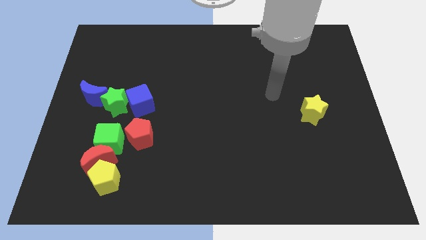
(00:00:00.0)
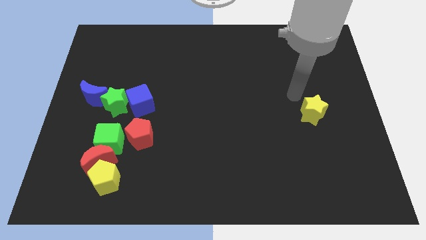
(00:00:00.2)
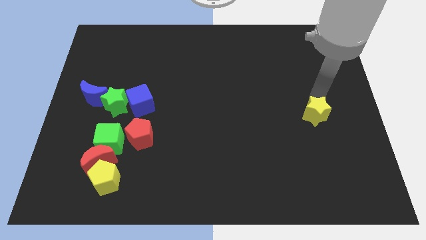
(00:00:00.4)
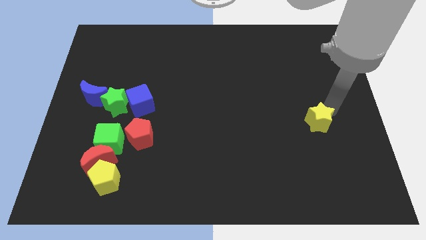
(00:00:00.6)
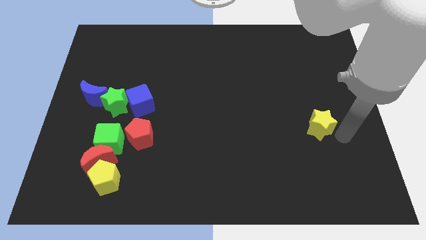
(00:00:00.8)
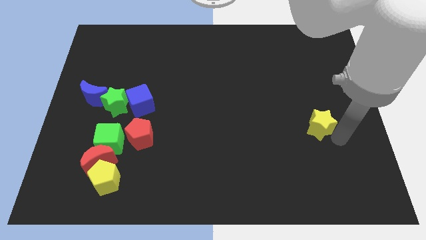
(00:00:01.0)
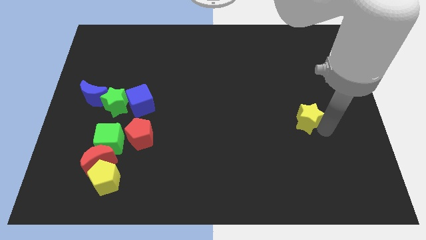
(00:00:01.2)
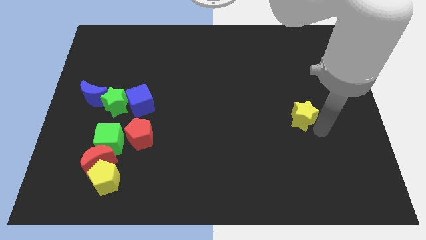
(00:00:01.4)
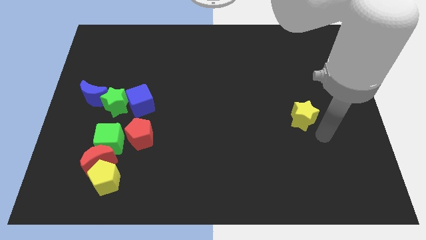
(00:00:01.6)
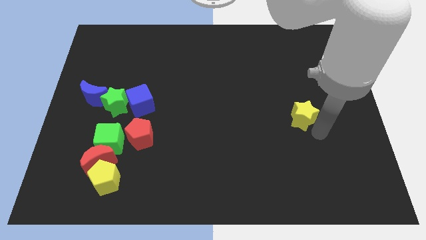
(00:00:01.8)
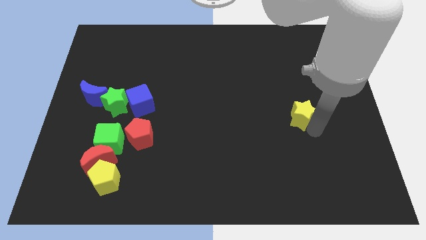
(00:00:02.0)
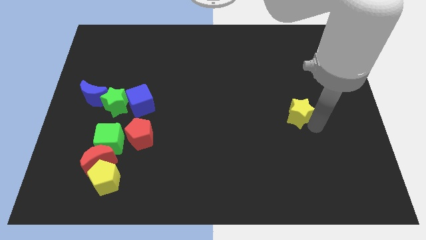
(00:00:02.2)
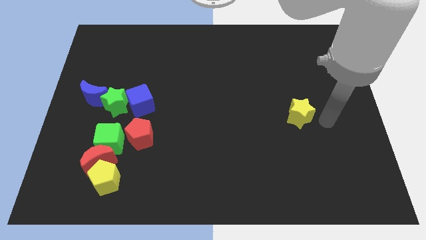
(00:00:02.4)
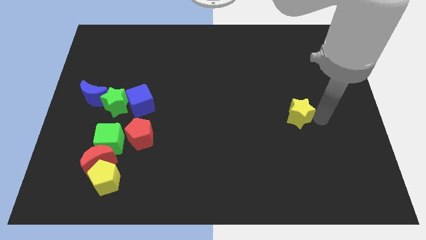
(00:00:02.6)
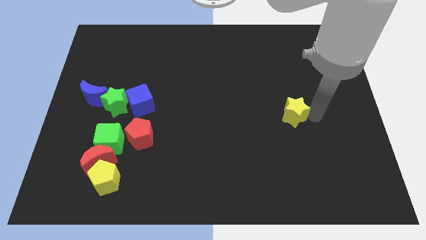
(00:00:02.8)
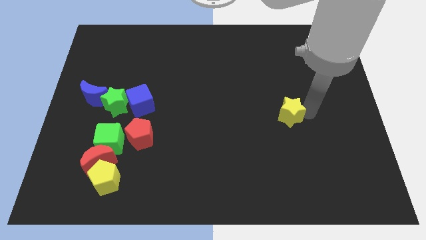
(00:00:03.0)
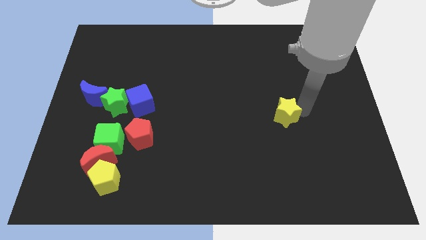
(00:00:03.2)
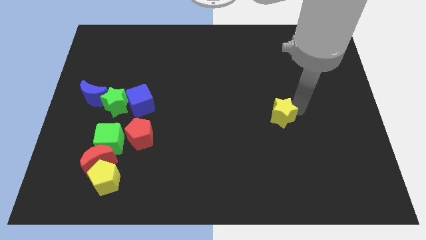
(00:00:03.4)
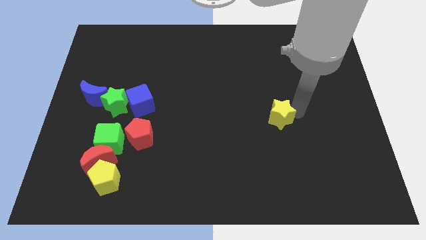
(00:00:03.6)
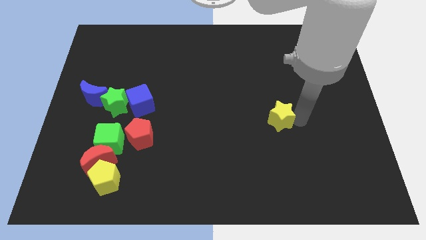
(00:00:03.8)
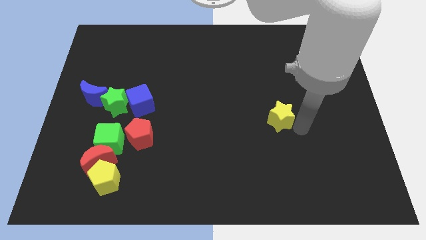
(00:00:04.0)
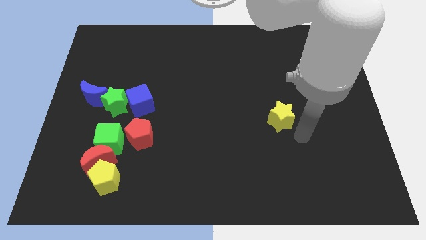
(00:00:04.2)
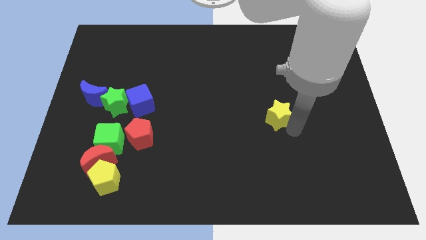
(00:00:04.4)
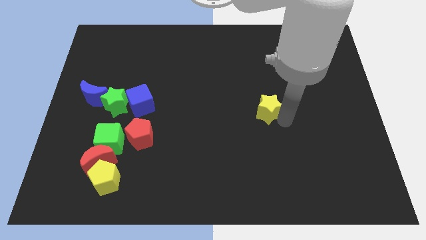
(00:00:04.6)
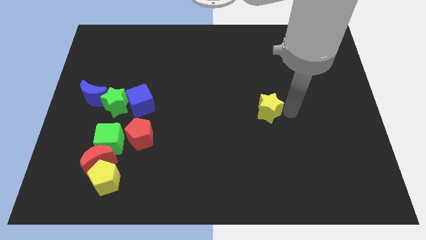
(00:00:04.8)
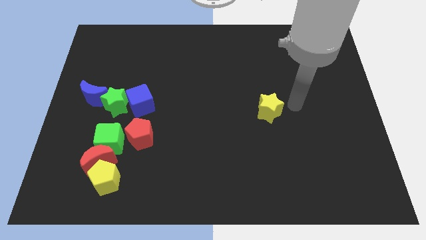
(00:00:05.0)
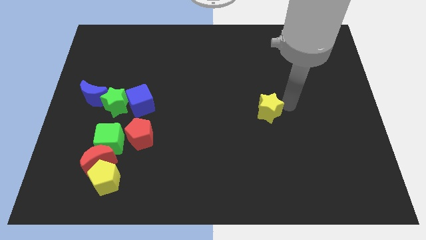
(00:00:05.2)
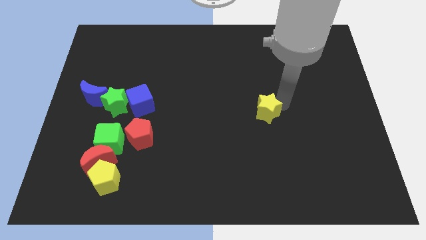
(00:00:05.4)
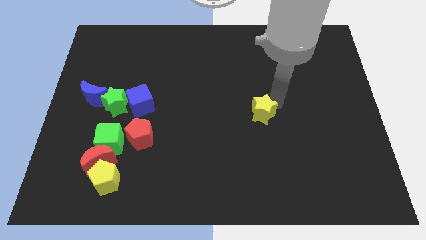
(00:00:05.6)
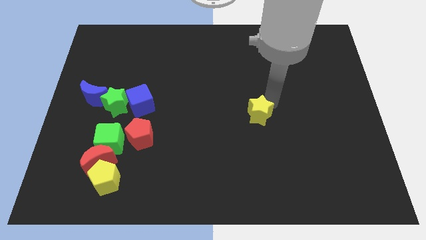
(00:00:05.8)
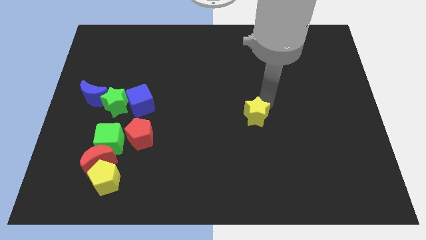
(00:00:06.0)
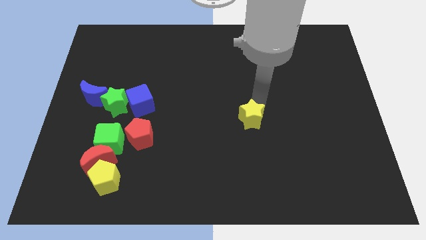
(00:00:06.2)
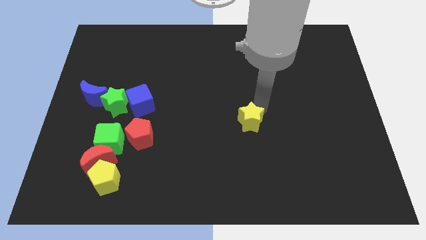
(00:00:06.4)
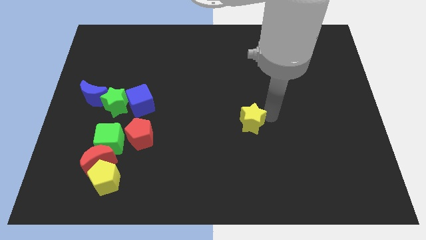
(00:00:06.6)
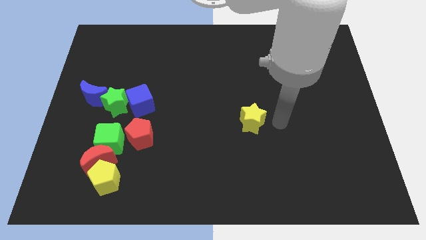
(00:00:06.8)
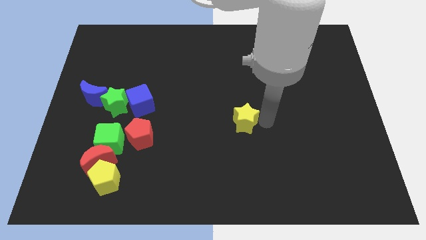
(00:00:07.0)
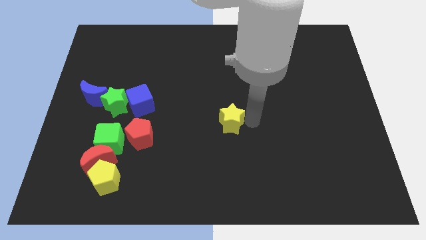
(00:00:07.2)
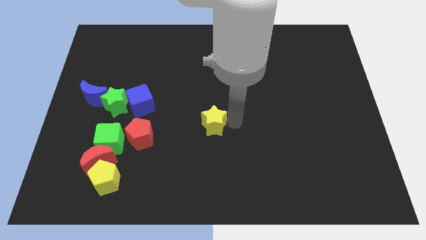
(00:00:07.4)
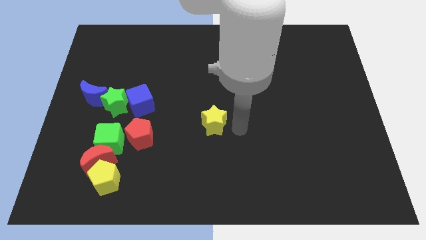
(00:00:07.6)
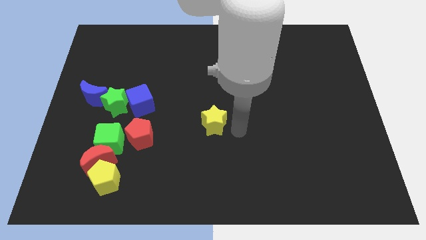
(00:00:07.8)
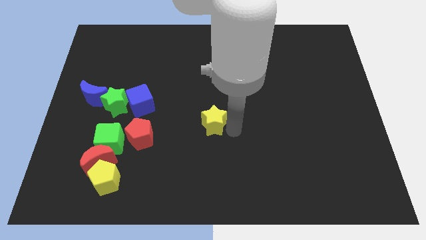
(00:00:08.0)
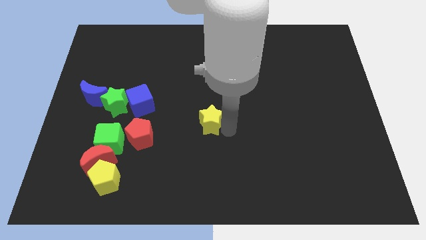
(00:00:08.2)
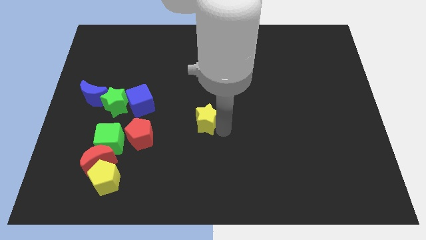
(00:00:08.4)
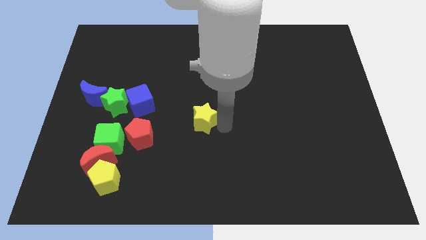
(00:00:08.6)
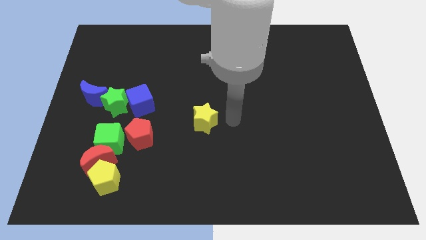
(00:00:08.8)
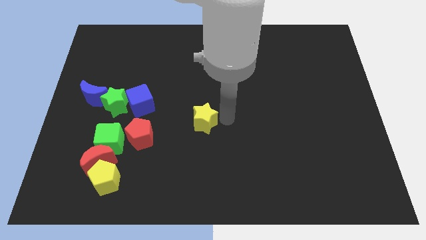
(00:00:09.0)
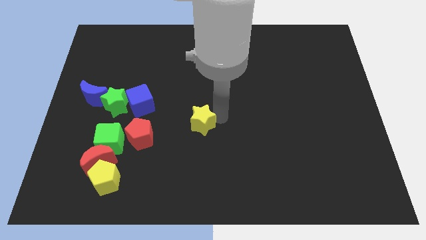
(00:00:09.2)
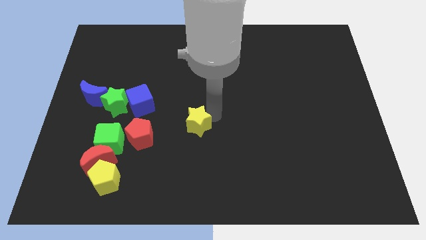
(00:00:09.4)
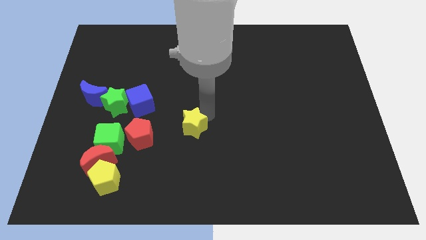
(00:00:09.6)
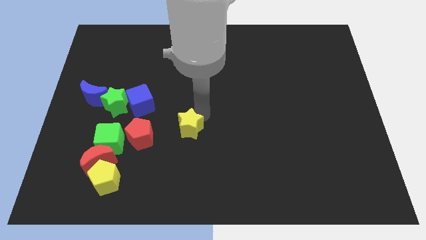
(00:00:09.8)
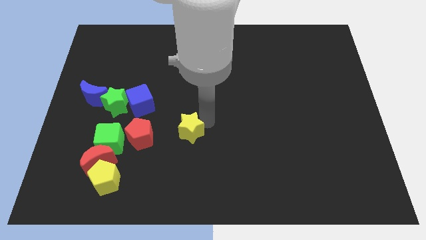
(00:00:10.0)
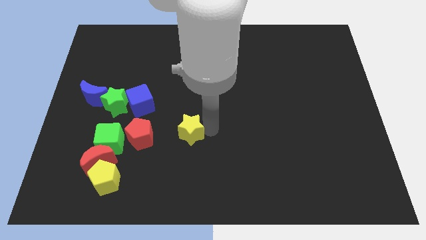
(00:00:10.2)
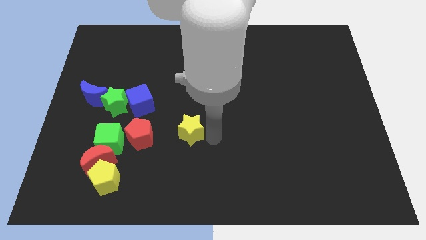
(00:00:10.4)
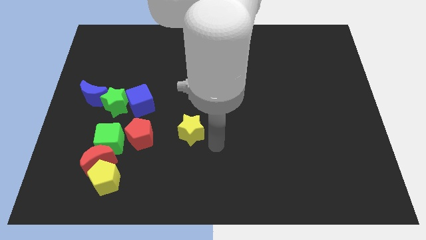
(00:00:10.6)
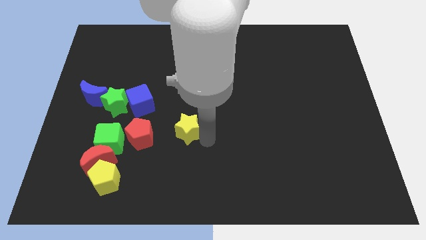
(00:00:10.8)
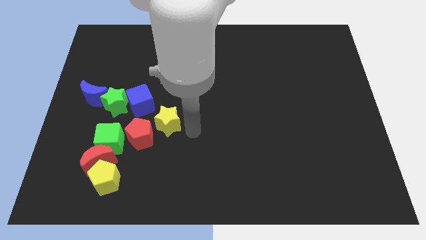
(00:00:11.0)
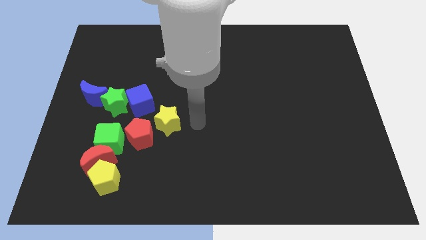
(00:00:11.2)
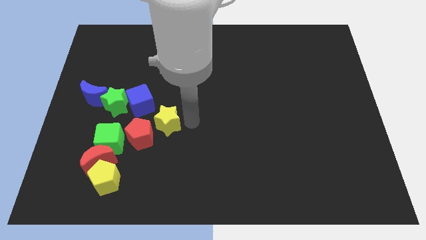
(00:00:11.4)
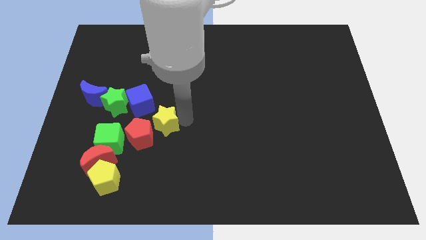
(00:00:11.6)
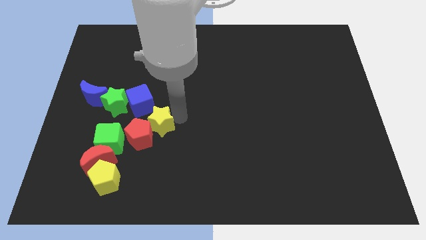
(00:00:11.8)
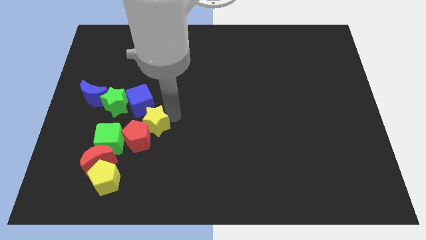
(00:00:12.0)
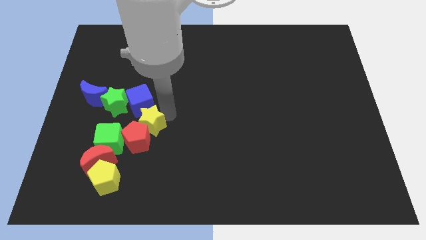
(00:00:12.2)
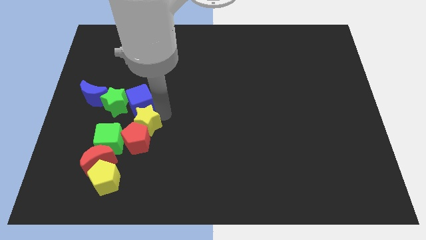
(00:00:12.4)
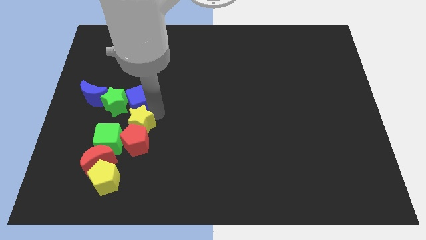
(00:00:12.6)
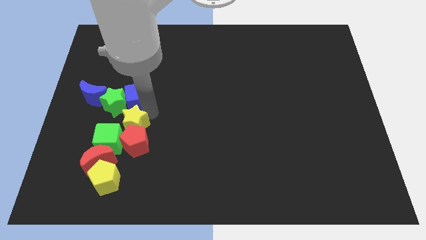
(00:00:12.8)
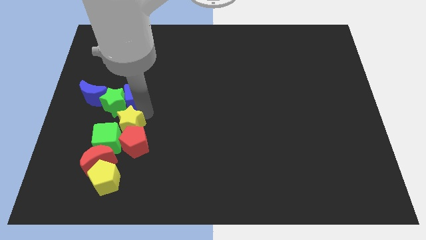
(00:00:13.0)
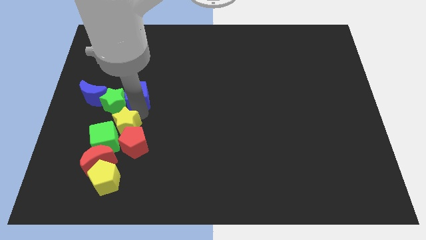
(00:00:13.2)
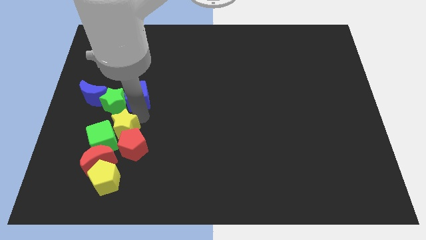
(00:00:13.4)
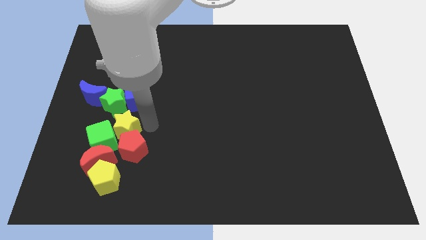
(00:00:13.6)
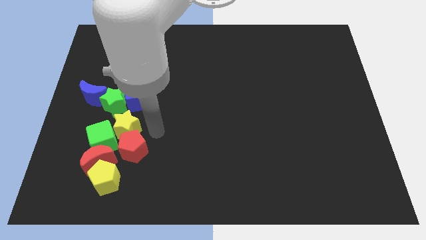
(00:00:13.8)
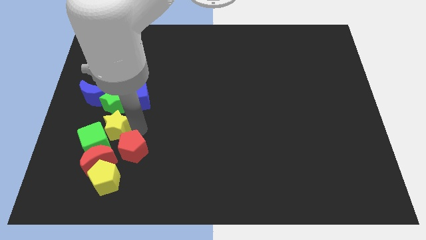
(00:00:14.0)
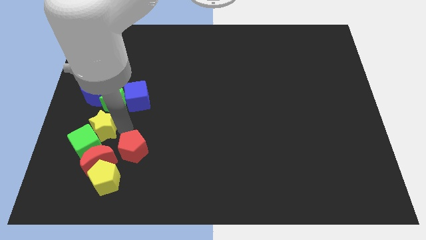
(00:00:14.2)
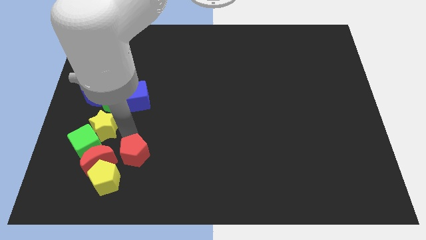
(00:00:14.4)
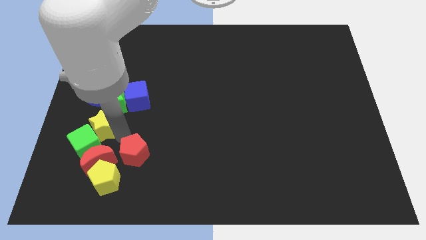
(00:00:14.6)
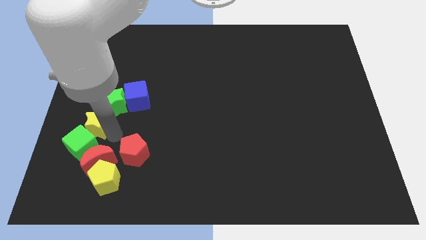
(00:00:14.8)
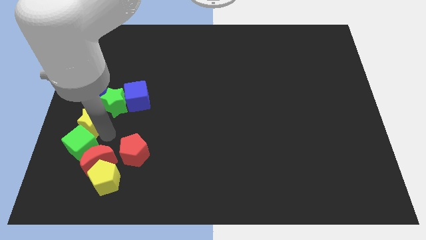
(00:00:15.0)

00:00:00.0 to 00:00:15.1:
push the yellow star to the left side
